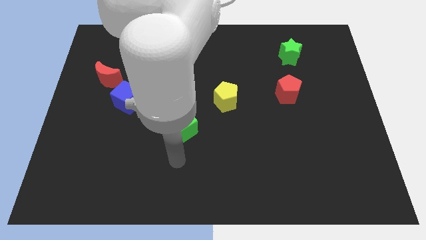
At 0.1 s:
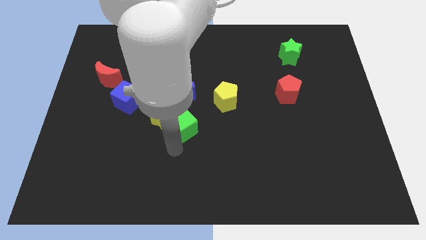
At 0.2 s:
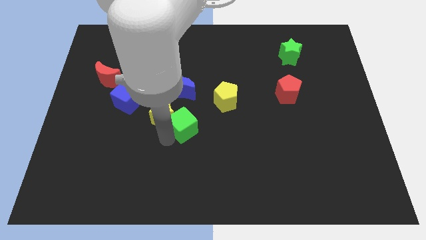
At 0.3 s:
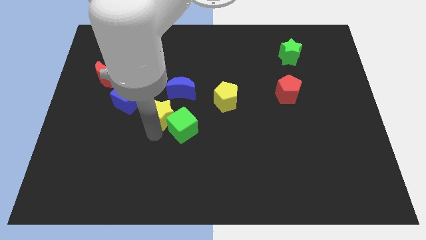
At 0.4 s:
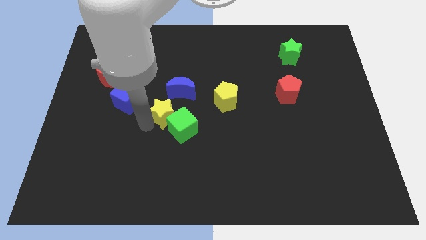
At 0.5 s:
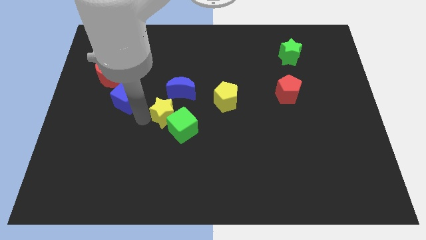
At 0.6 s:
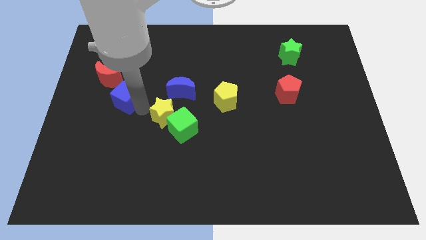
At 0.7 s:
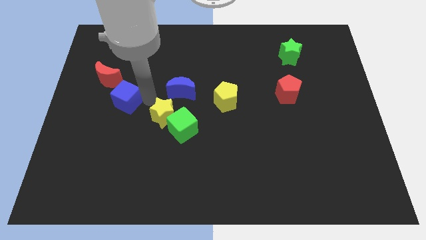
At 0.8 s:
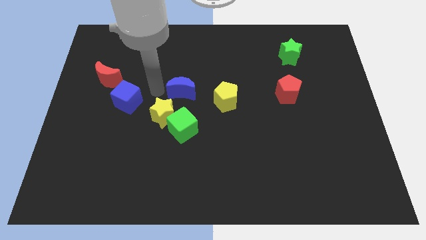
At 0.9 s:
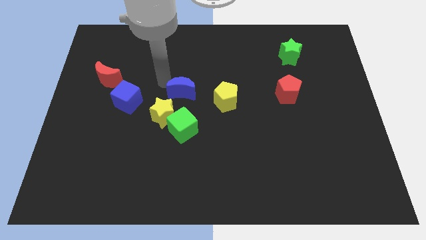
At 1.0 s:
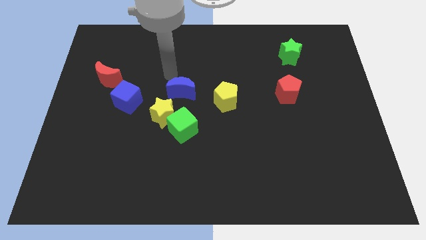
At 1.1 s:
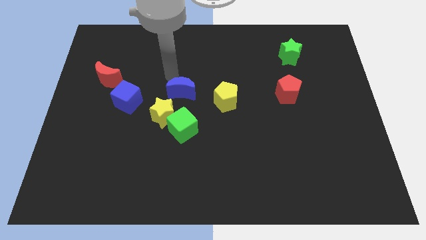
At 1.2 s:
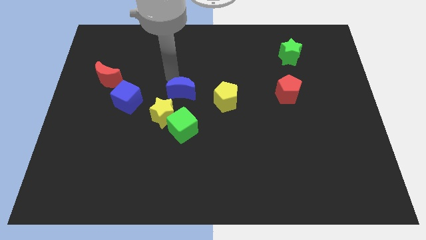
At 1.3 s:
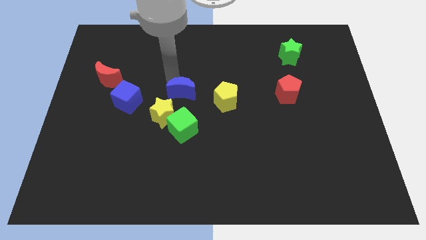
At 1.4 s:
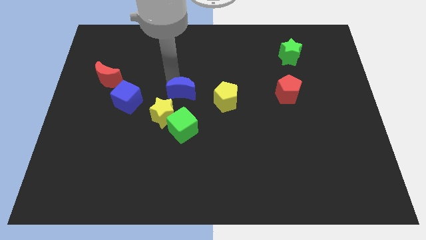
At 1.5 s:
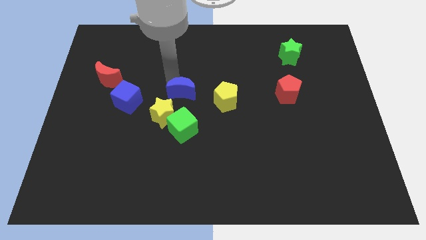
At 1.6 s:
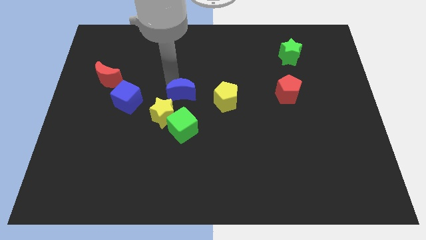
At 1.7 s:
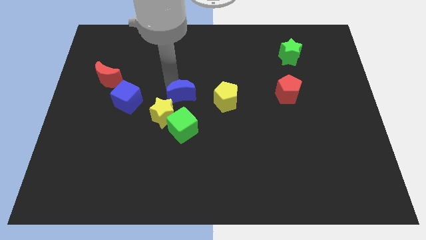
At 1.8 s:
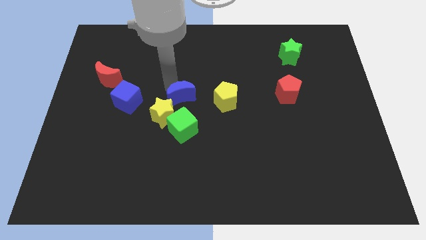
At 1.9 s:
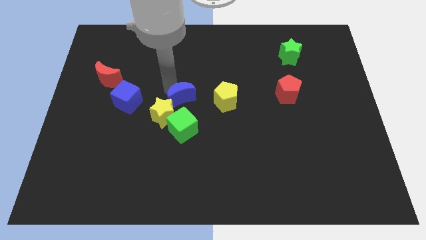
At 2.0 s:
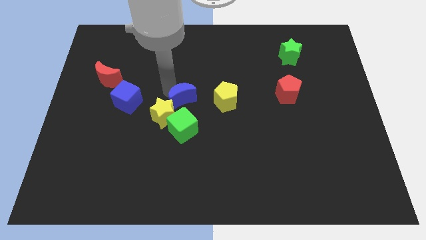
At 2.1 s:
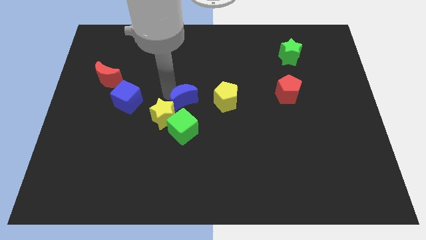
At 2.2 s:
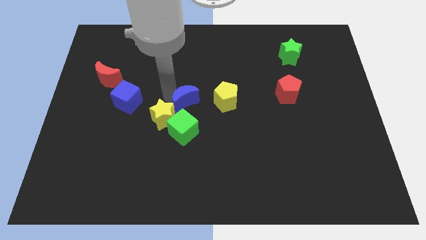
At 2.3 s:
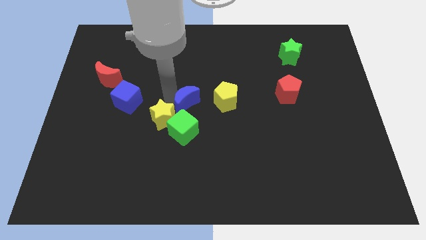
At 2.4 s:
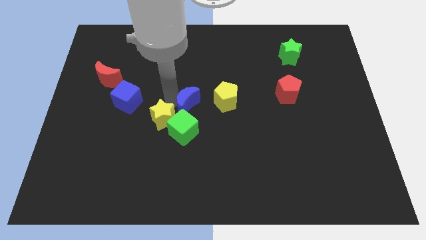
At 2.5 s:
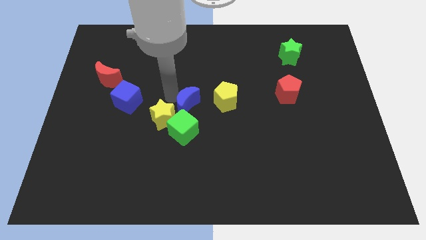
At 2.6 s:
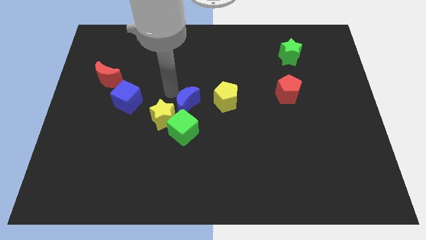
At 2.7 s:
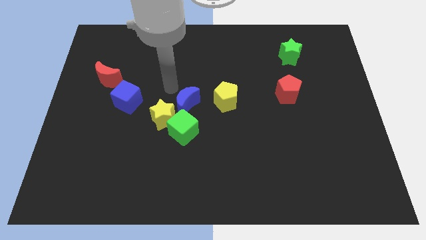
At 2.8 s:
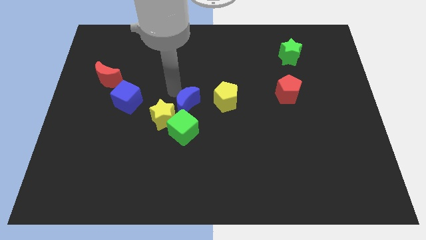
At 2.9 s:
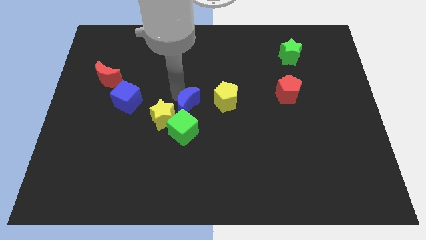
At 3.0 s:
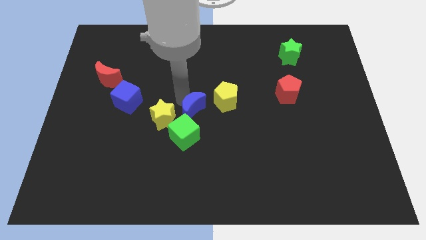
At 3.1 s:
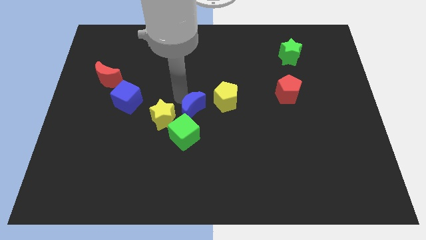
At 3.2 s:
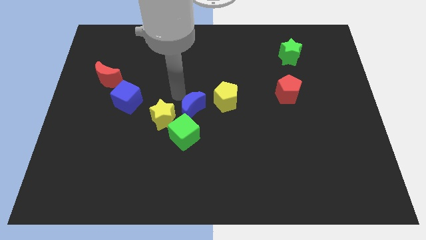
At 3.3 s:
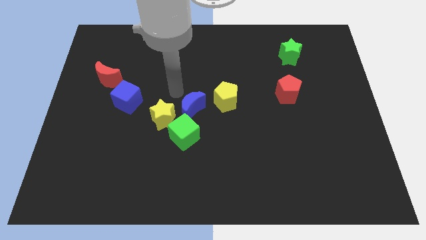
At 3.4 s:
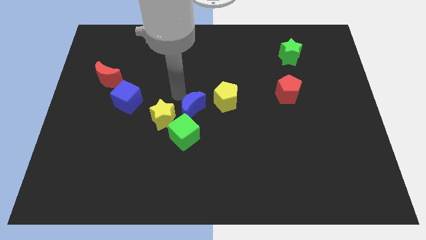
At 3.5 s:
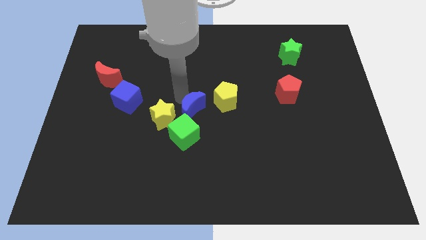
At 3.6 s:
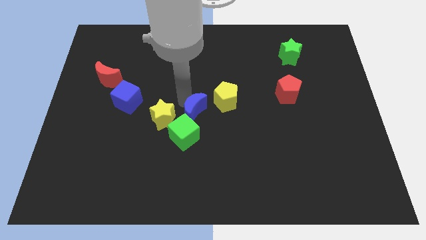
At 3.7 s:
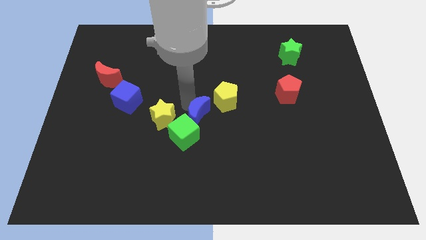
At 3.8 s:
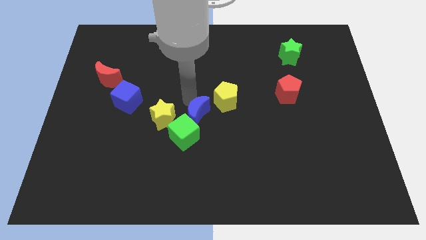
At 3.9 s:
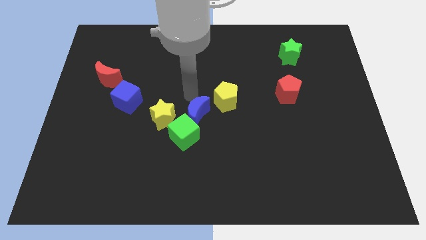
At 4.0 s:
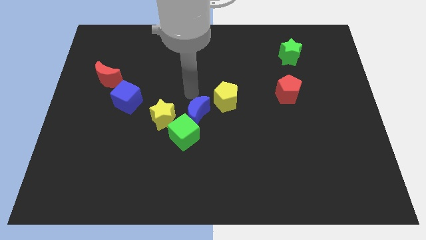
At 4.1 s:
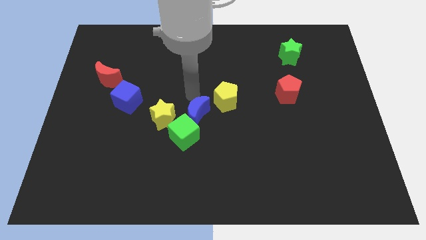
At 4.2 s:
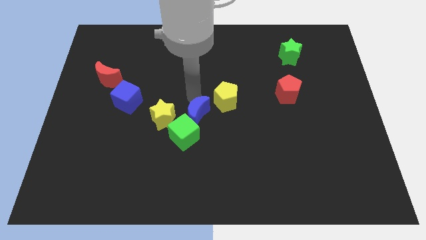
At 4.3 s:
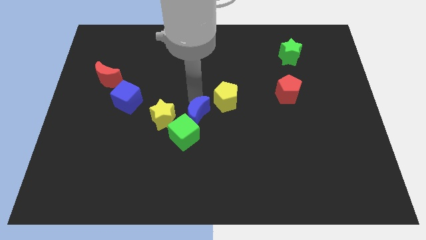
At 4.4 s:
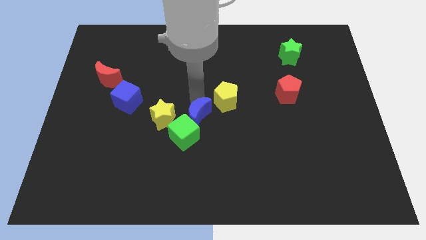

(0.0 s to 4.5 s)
move the blue moon a little bit downwards

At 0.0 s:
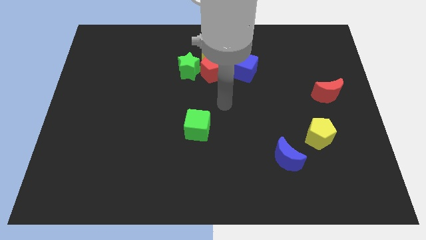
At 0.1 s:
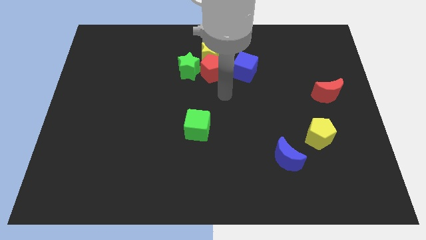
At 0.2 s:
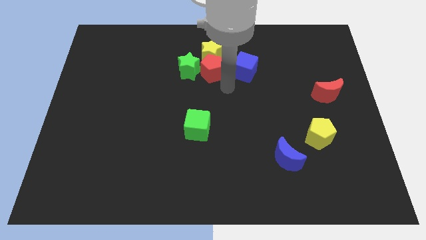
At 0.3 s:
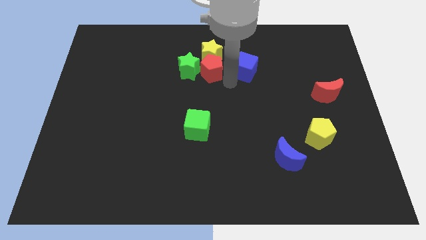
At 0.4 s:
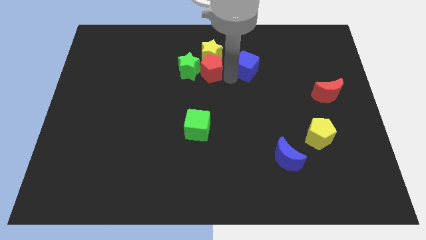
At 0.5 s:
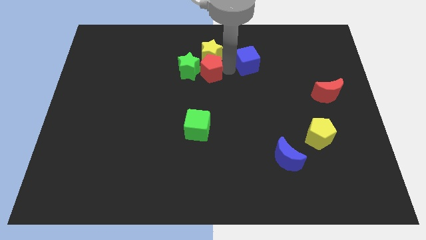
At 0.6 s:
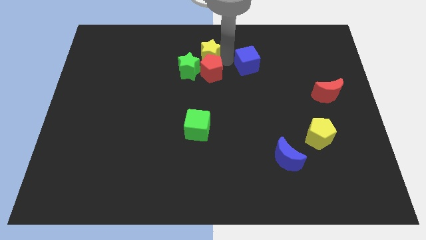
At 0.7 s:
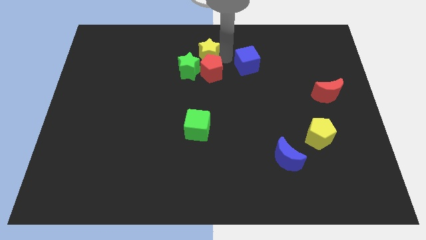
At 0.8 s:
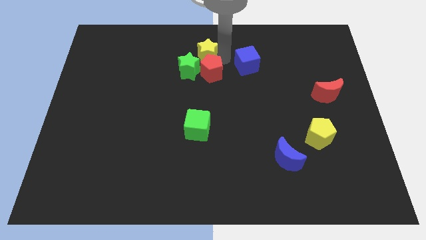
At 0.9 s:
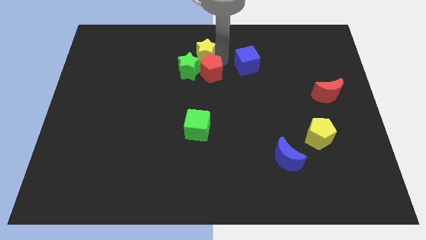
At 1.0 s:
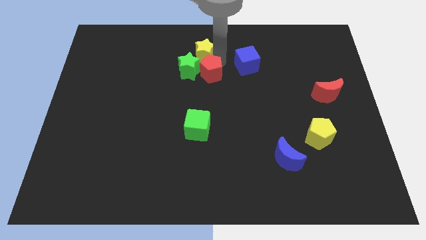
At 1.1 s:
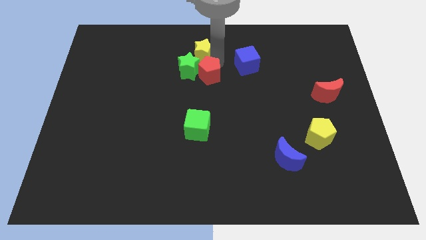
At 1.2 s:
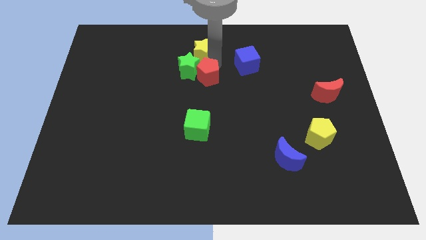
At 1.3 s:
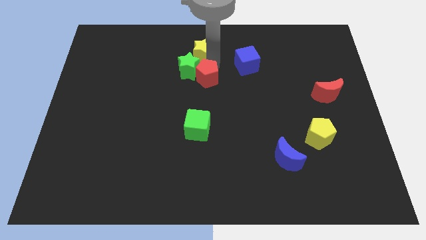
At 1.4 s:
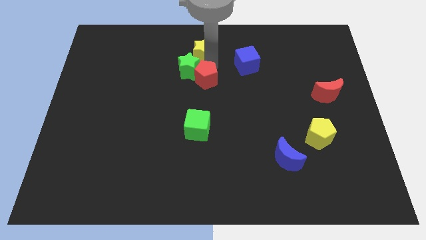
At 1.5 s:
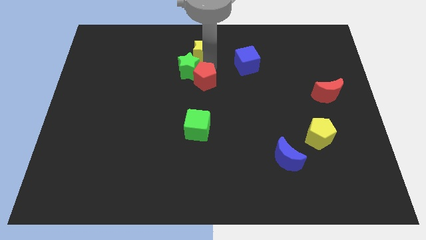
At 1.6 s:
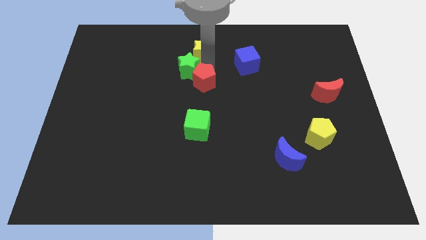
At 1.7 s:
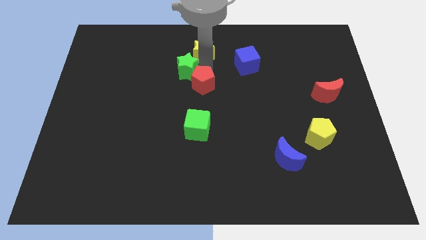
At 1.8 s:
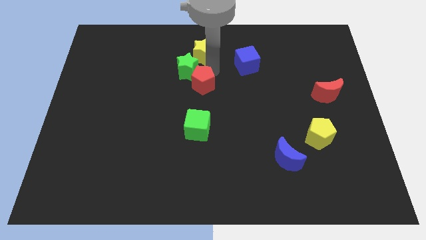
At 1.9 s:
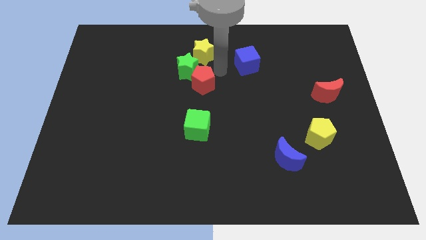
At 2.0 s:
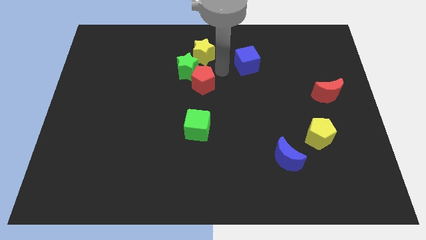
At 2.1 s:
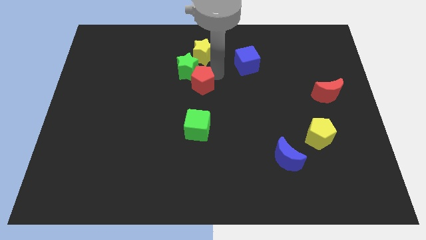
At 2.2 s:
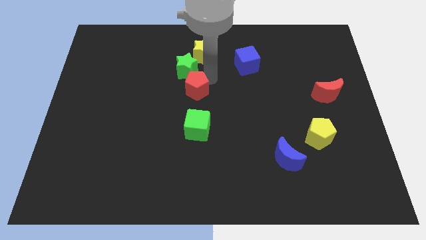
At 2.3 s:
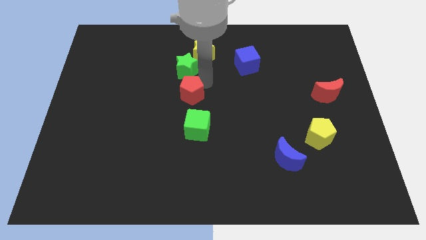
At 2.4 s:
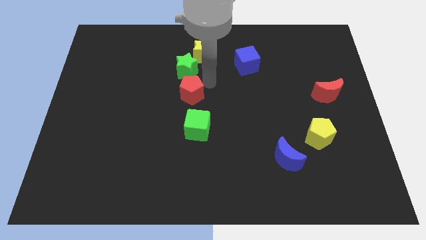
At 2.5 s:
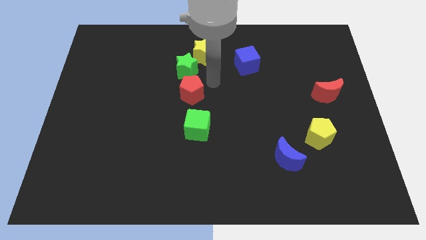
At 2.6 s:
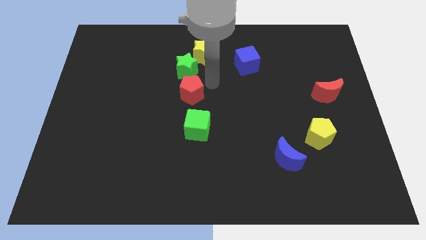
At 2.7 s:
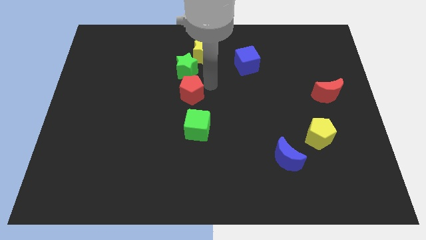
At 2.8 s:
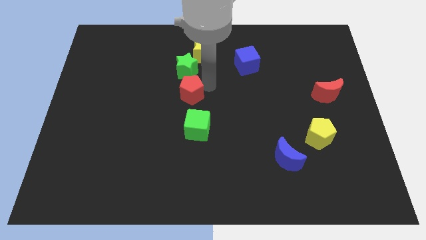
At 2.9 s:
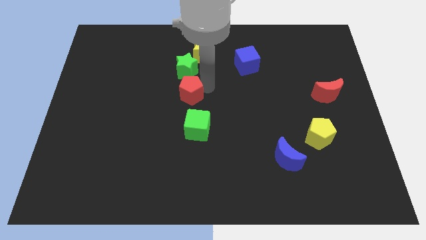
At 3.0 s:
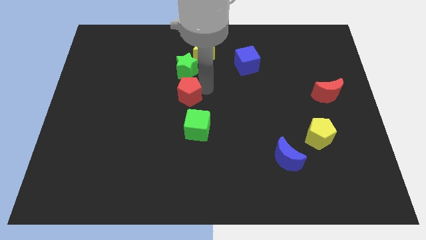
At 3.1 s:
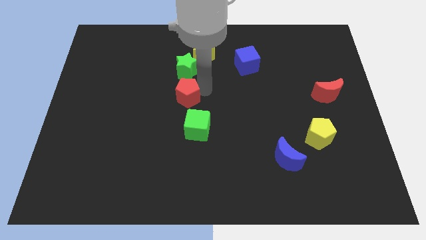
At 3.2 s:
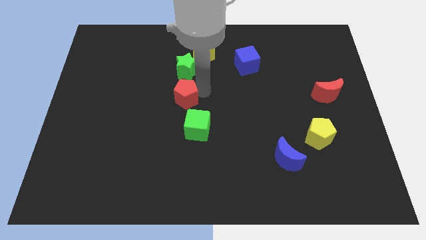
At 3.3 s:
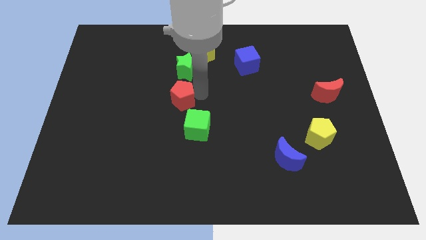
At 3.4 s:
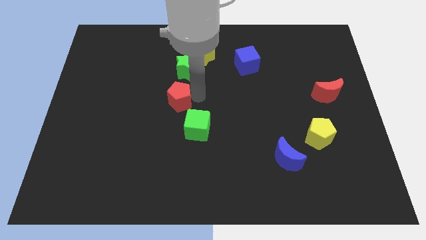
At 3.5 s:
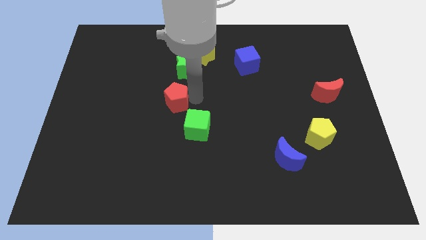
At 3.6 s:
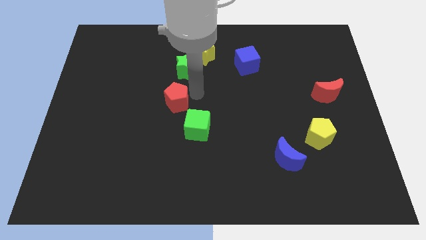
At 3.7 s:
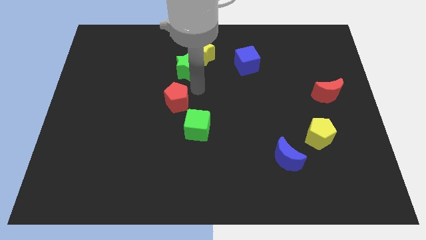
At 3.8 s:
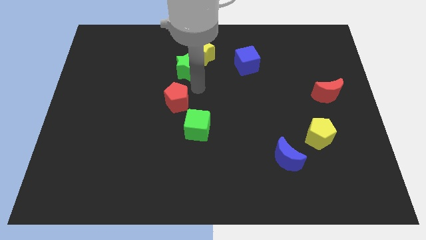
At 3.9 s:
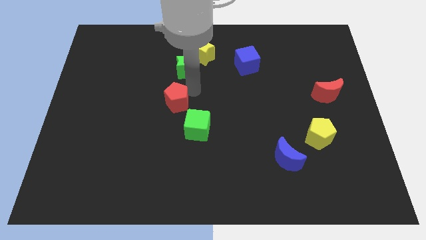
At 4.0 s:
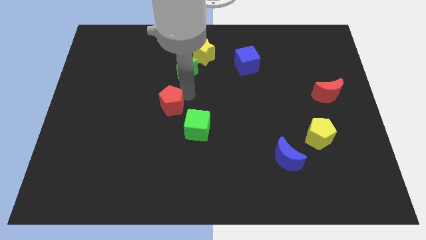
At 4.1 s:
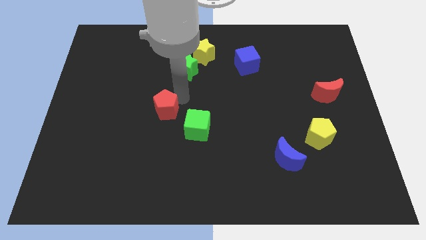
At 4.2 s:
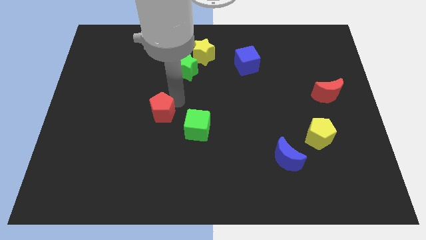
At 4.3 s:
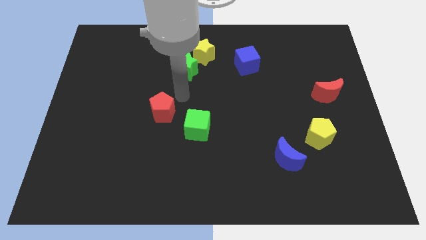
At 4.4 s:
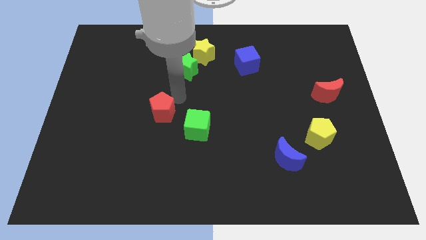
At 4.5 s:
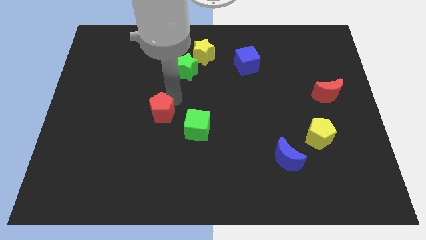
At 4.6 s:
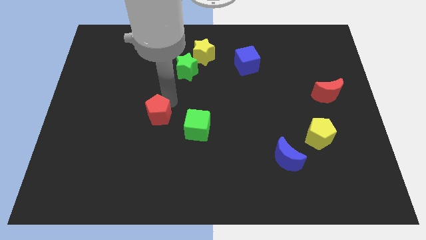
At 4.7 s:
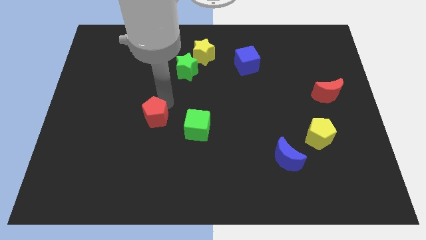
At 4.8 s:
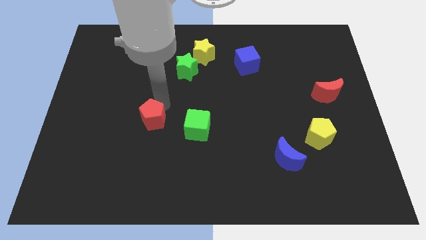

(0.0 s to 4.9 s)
push the red pentagon downwards and left diagonally
